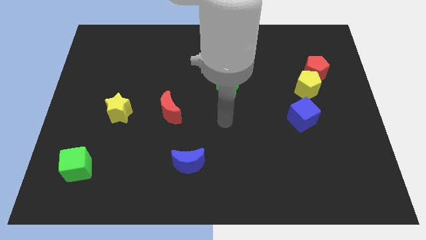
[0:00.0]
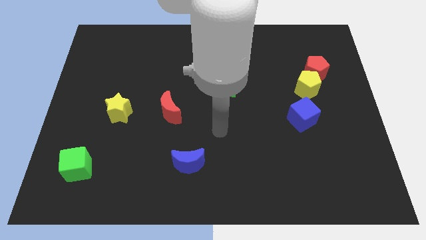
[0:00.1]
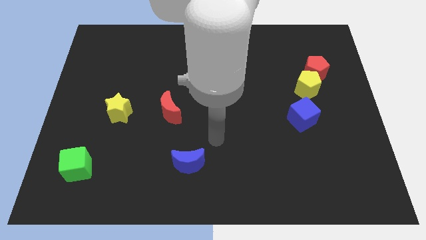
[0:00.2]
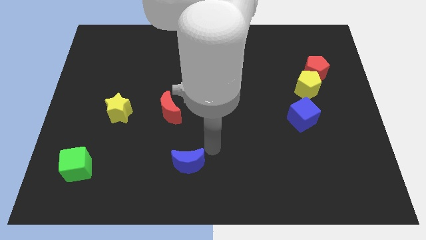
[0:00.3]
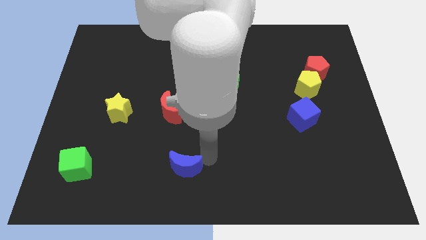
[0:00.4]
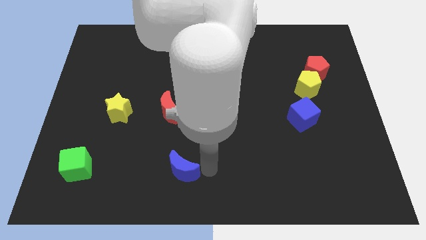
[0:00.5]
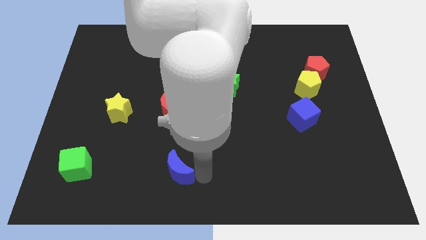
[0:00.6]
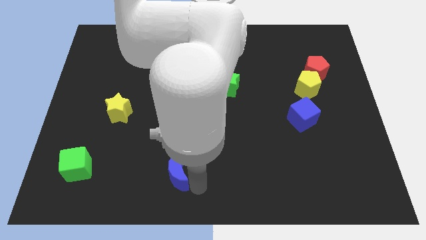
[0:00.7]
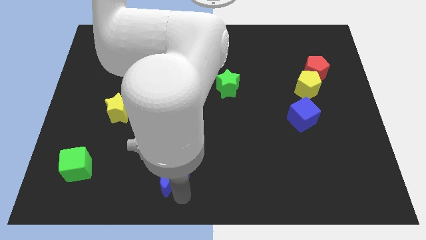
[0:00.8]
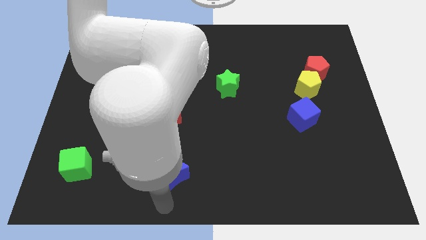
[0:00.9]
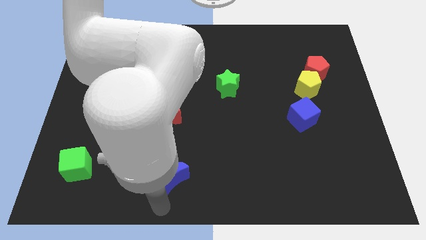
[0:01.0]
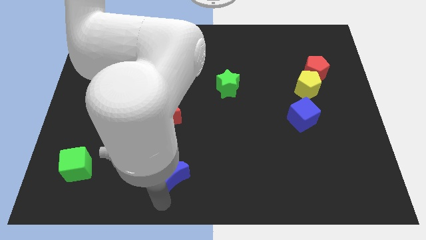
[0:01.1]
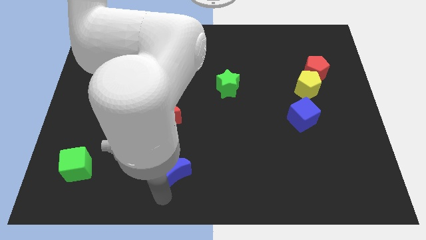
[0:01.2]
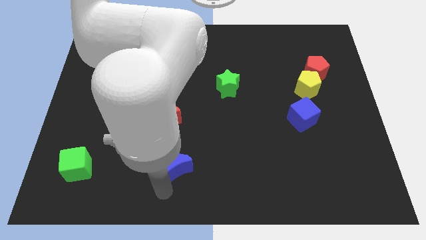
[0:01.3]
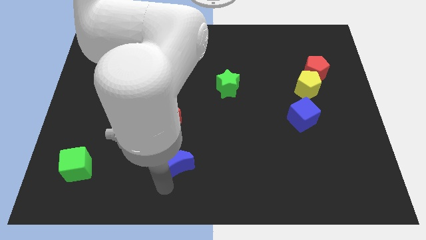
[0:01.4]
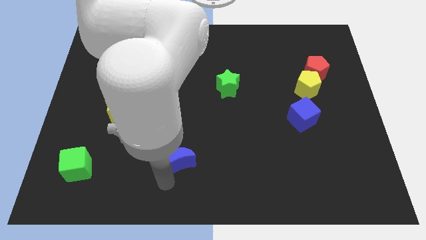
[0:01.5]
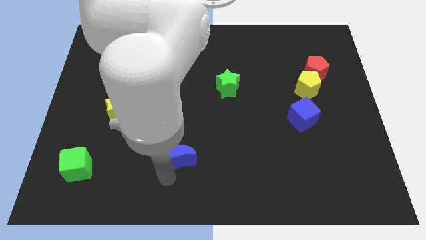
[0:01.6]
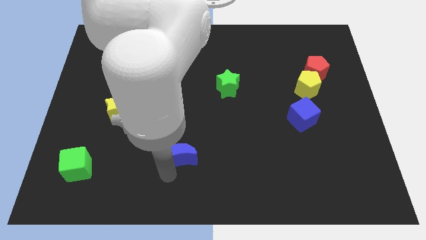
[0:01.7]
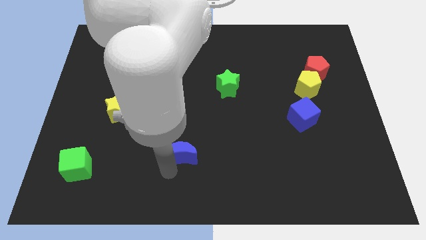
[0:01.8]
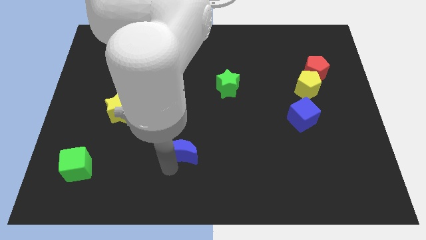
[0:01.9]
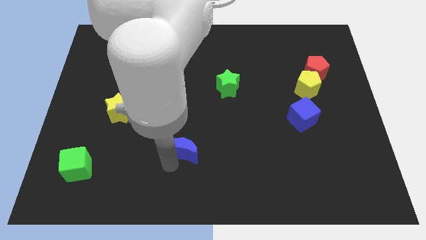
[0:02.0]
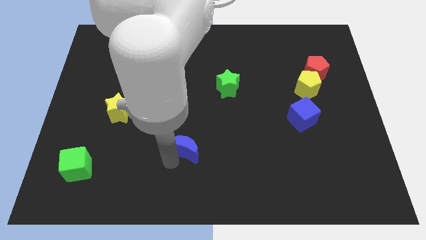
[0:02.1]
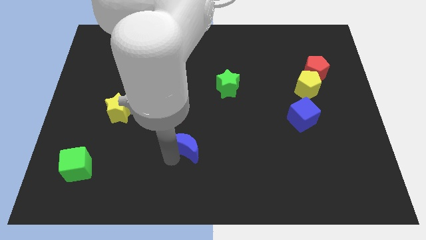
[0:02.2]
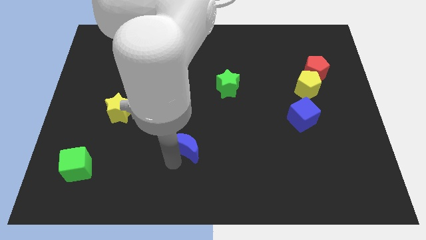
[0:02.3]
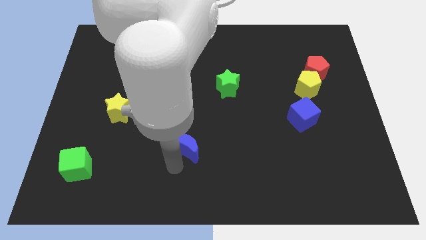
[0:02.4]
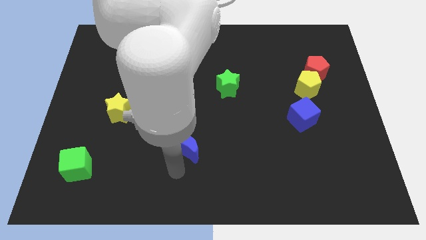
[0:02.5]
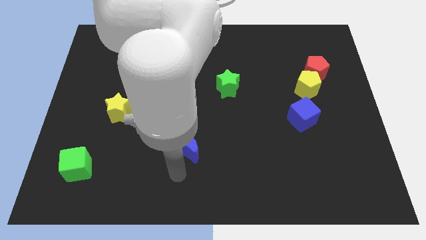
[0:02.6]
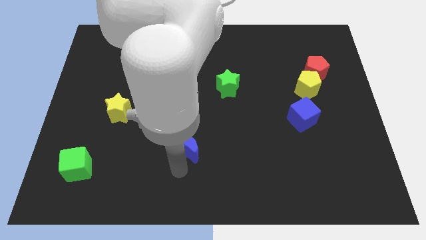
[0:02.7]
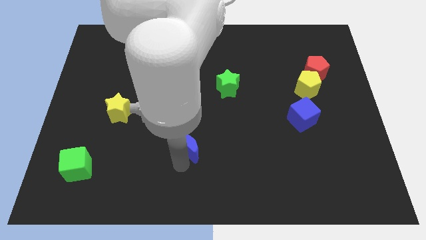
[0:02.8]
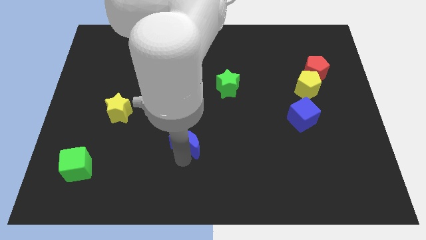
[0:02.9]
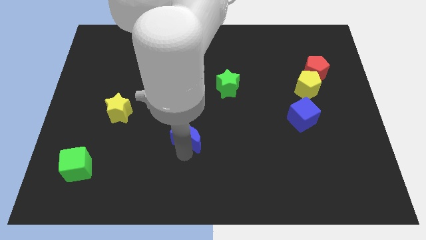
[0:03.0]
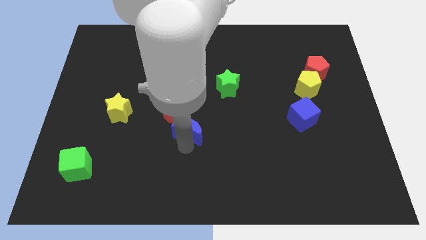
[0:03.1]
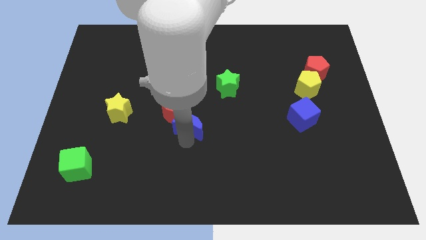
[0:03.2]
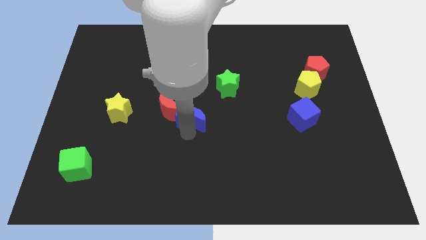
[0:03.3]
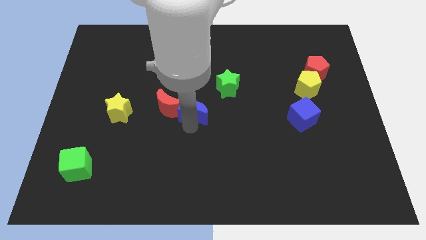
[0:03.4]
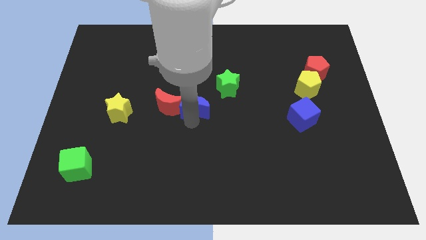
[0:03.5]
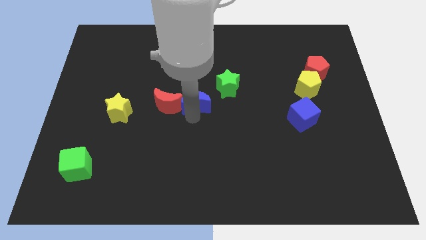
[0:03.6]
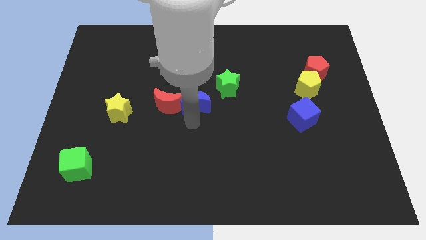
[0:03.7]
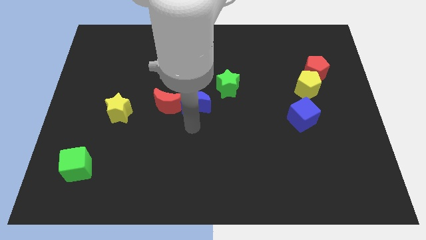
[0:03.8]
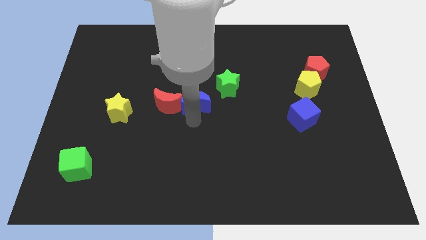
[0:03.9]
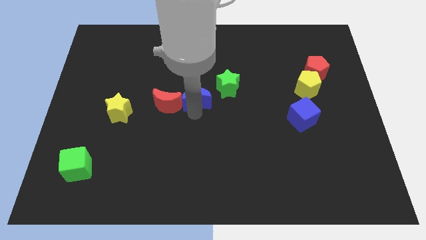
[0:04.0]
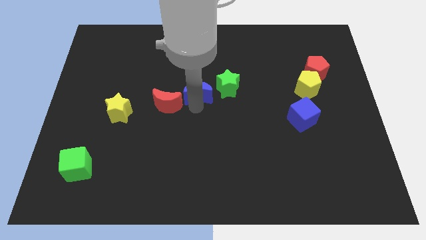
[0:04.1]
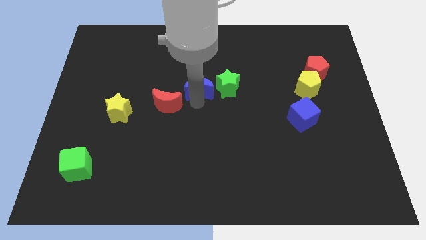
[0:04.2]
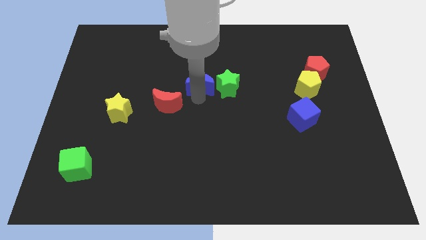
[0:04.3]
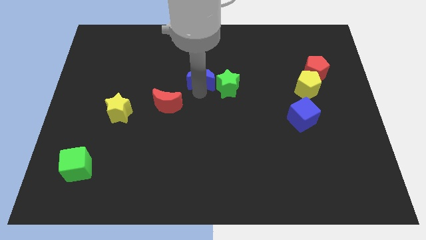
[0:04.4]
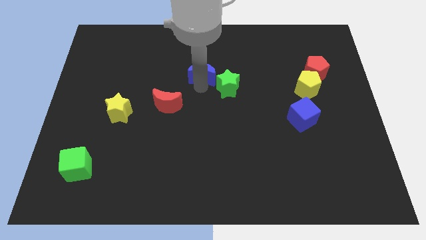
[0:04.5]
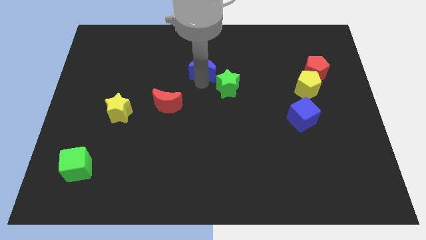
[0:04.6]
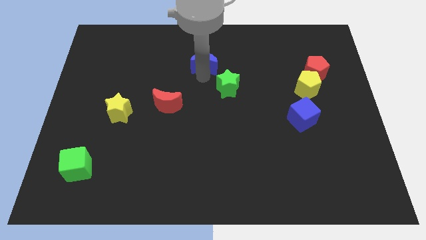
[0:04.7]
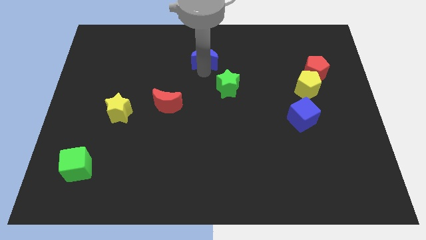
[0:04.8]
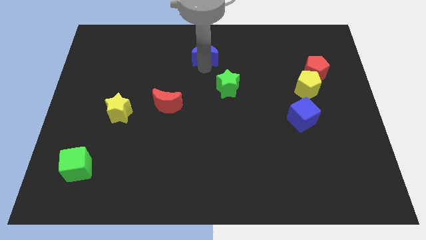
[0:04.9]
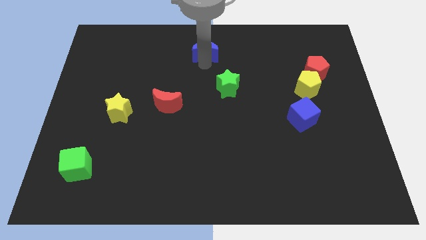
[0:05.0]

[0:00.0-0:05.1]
push the blue moon to the top

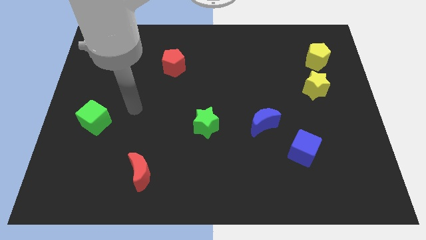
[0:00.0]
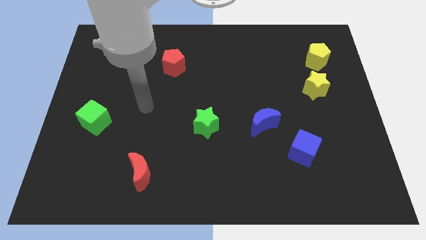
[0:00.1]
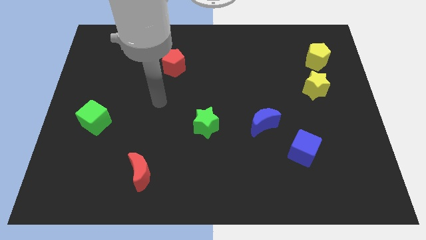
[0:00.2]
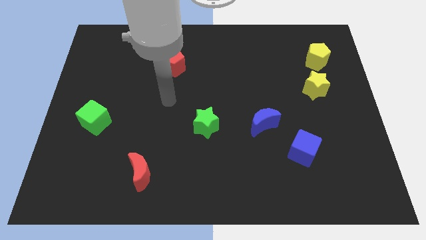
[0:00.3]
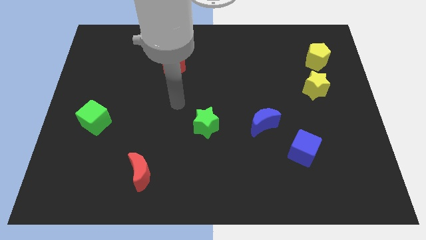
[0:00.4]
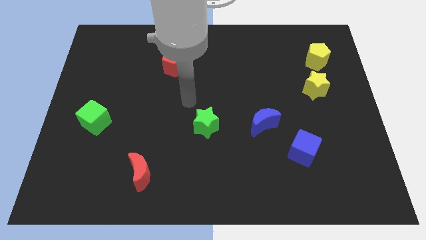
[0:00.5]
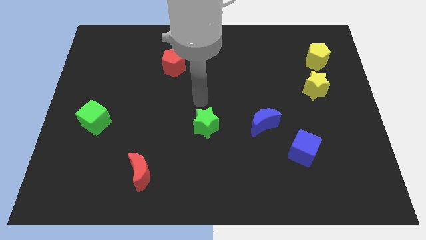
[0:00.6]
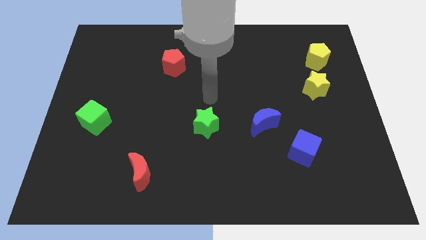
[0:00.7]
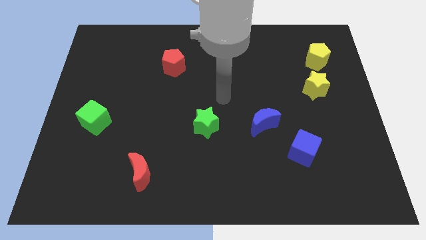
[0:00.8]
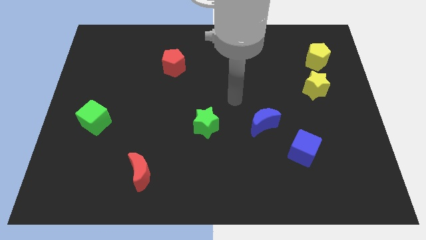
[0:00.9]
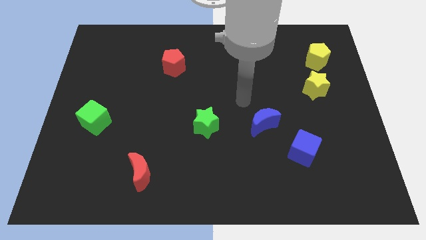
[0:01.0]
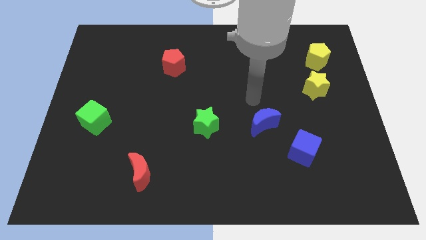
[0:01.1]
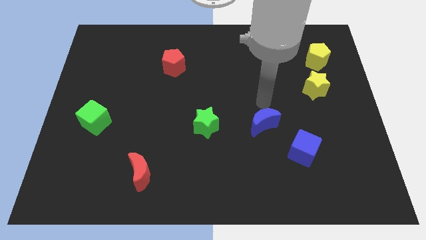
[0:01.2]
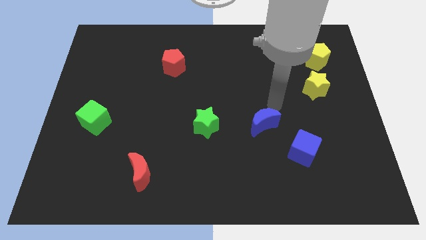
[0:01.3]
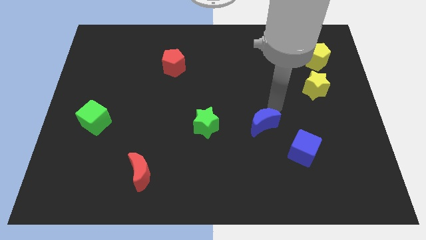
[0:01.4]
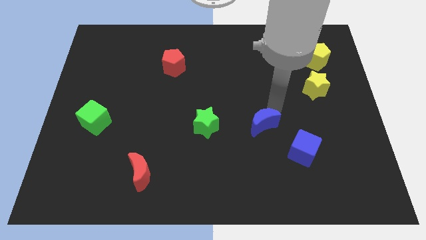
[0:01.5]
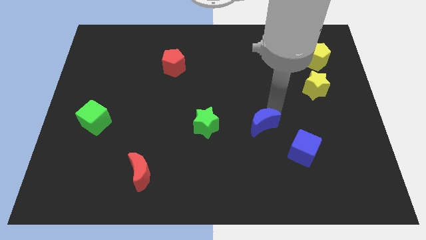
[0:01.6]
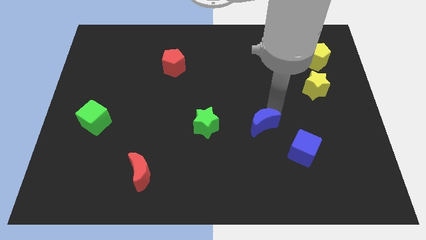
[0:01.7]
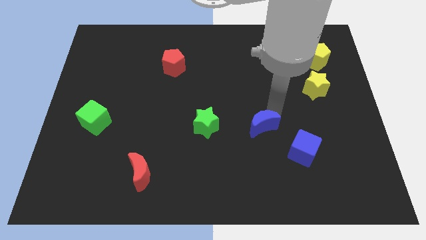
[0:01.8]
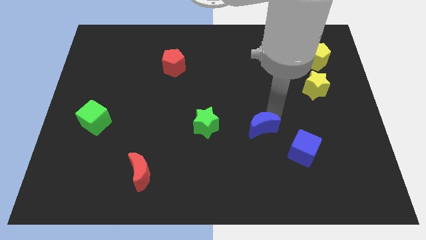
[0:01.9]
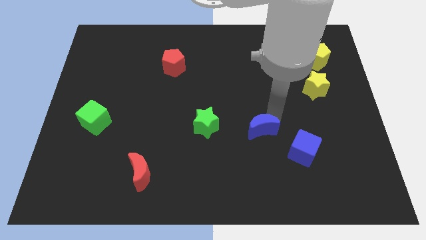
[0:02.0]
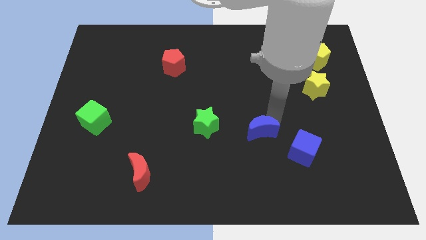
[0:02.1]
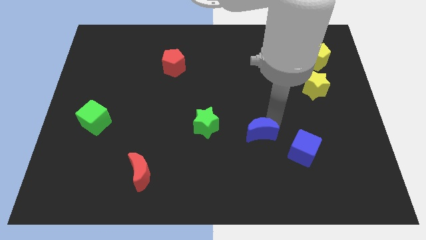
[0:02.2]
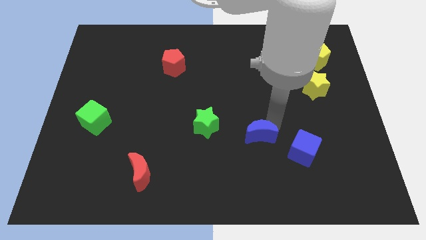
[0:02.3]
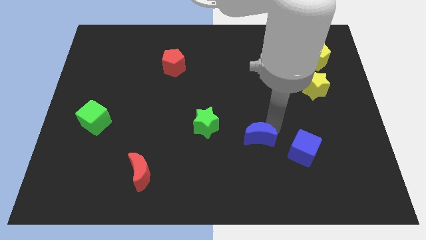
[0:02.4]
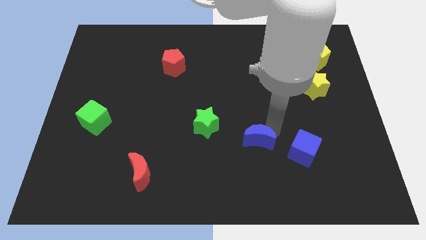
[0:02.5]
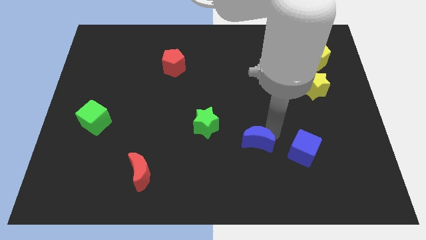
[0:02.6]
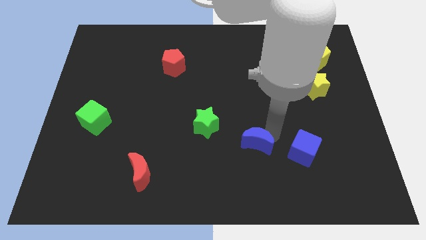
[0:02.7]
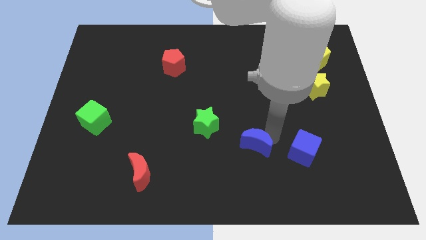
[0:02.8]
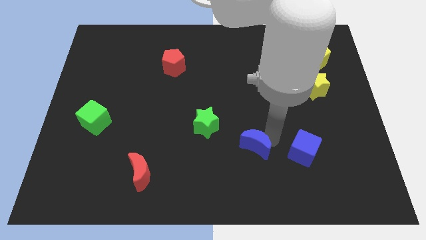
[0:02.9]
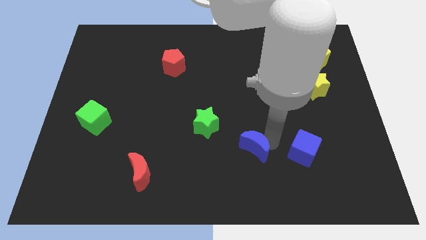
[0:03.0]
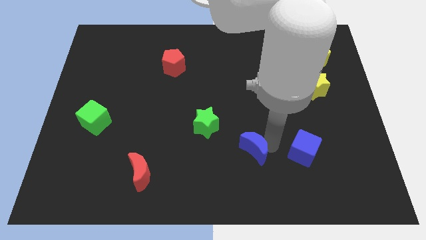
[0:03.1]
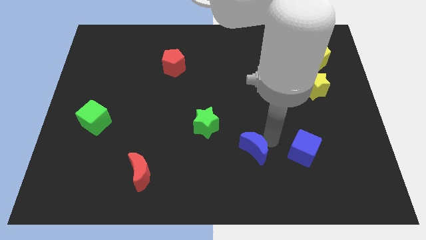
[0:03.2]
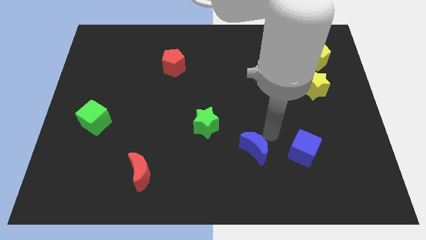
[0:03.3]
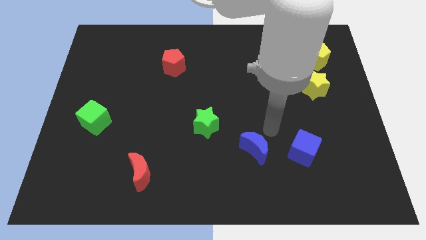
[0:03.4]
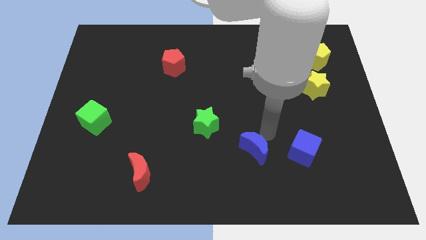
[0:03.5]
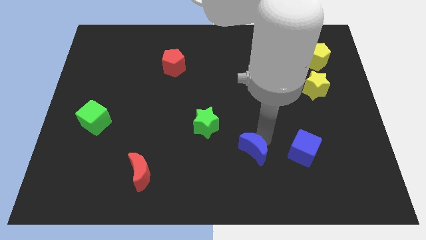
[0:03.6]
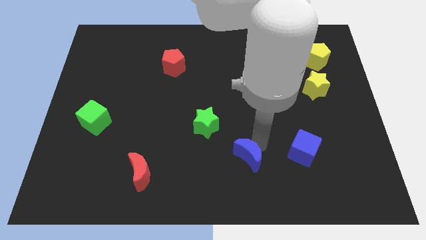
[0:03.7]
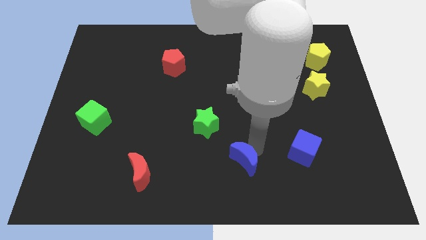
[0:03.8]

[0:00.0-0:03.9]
move the blue moon to the bottom
